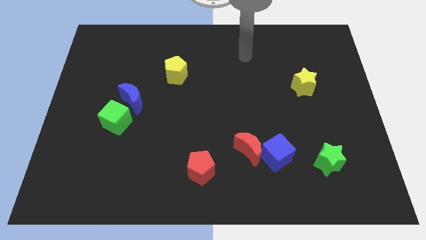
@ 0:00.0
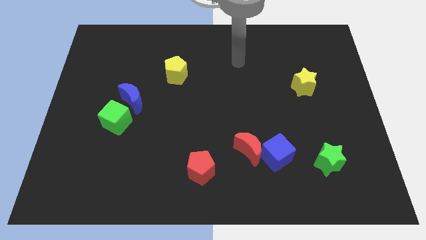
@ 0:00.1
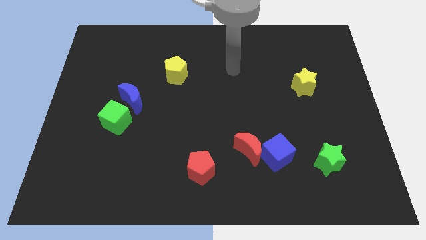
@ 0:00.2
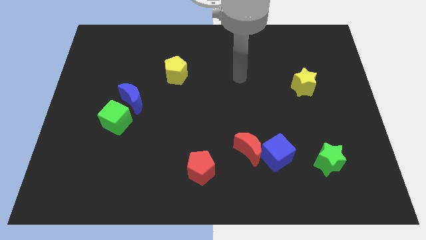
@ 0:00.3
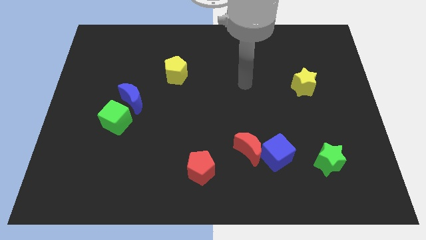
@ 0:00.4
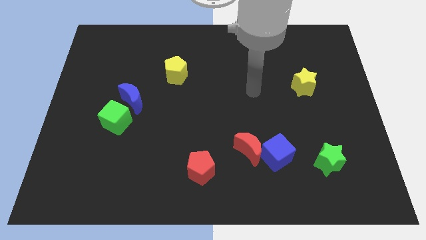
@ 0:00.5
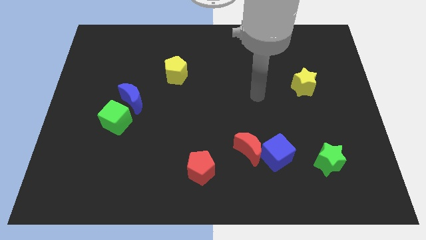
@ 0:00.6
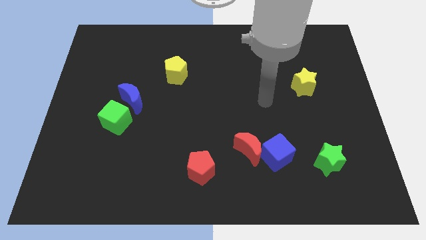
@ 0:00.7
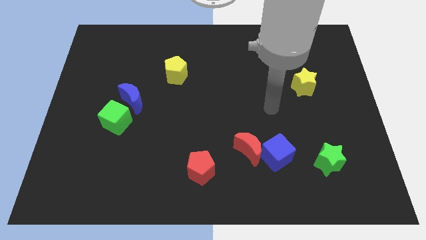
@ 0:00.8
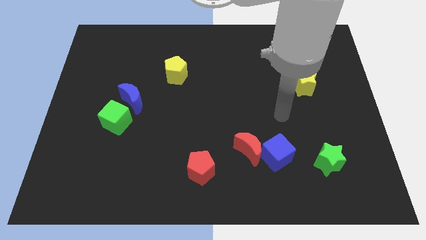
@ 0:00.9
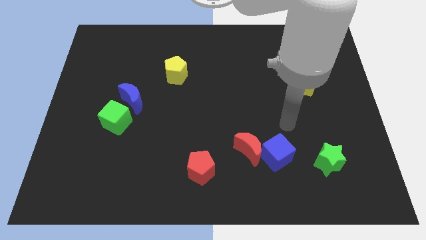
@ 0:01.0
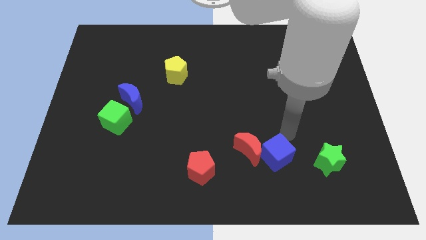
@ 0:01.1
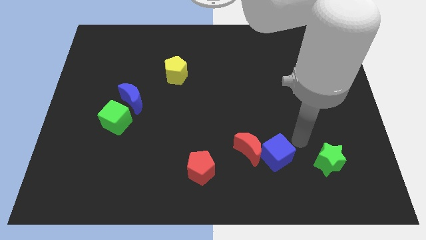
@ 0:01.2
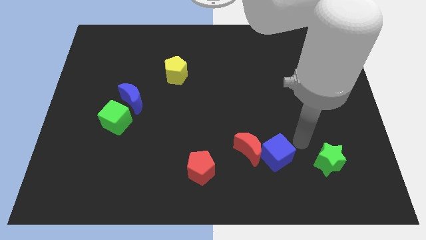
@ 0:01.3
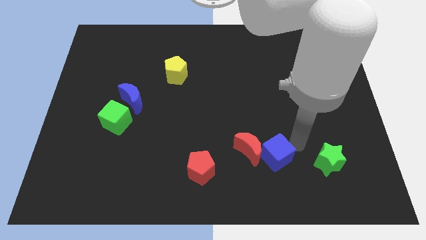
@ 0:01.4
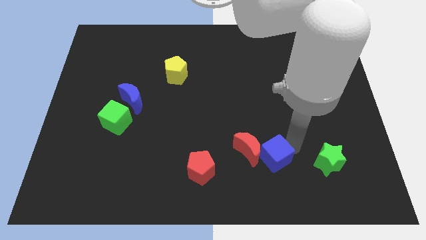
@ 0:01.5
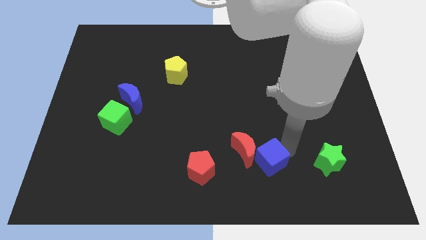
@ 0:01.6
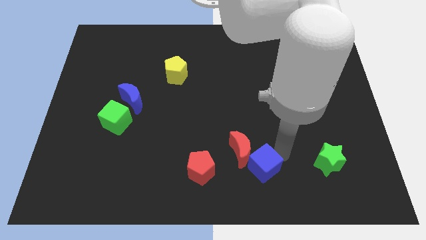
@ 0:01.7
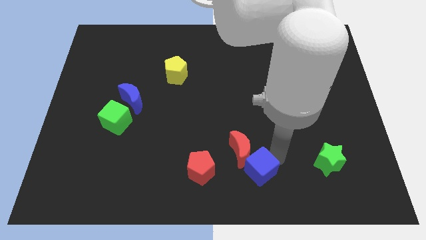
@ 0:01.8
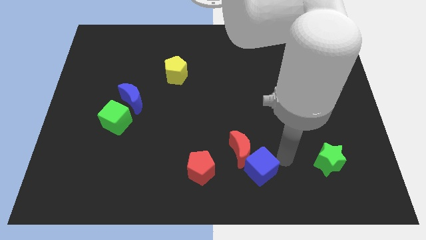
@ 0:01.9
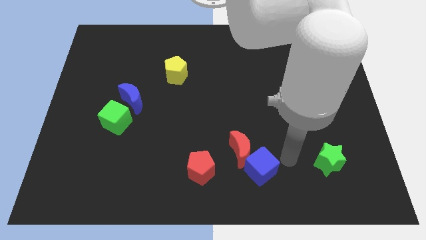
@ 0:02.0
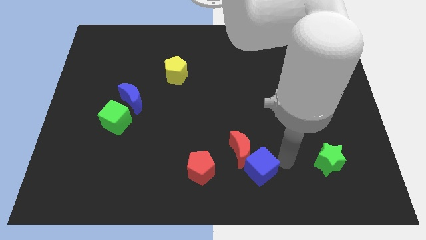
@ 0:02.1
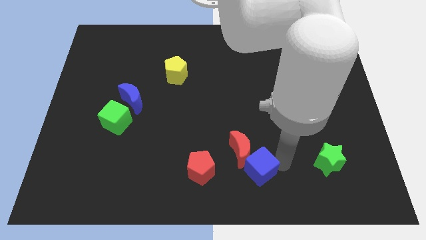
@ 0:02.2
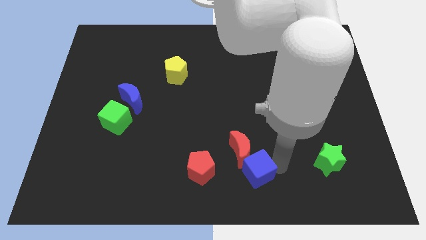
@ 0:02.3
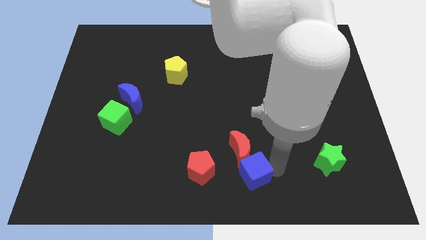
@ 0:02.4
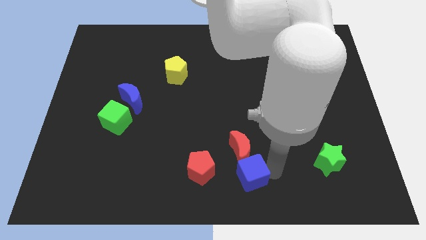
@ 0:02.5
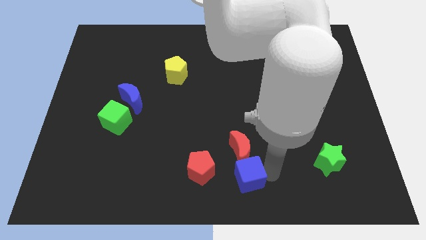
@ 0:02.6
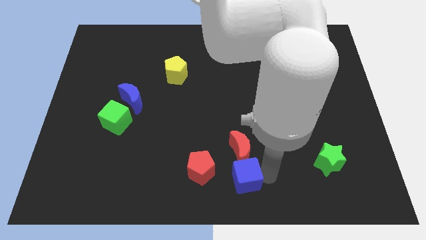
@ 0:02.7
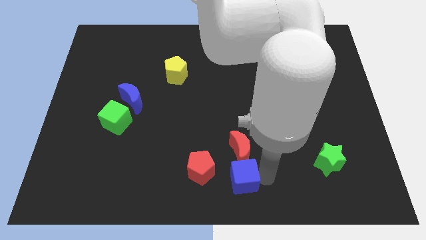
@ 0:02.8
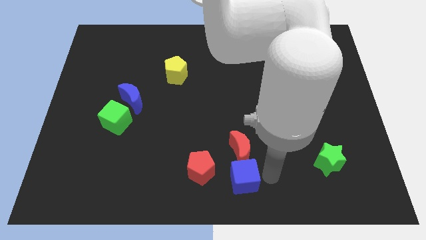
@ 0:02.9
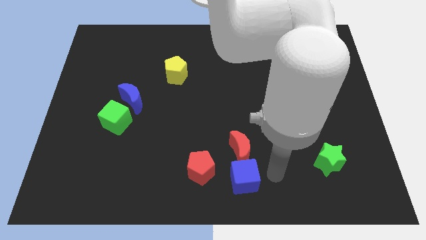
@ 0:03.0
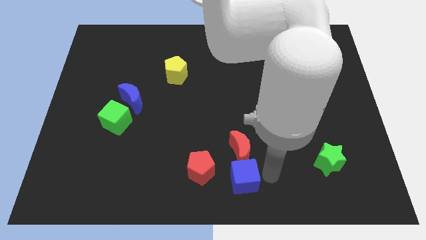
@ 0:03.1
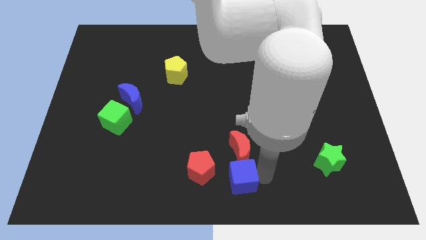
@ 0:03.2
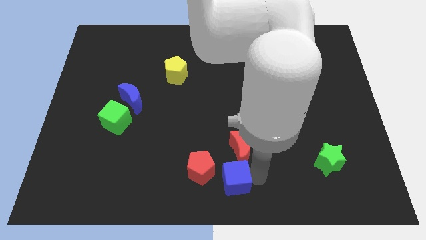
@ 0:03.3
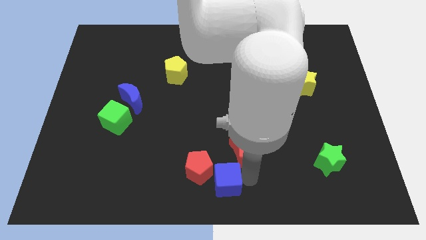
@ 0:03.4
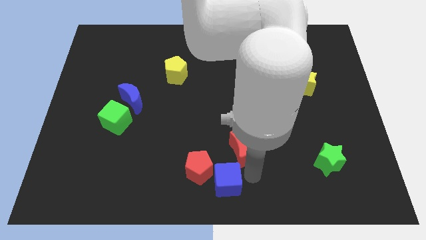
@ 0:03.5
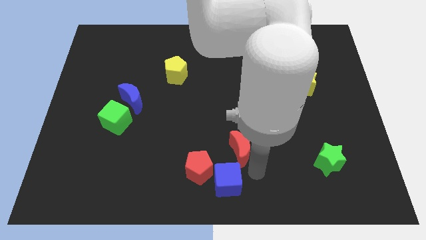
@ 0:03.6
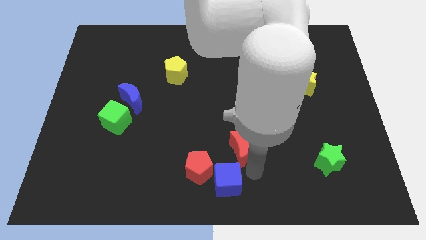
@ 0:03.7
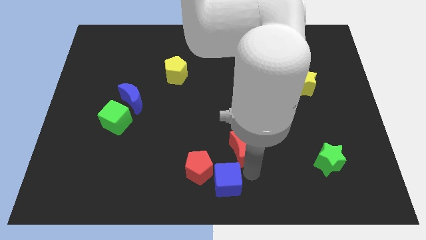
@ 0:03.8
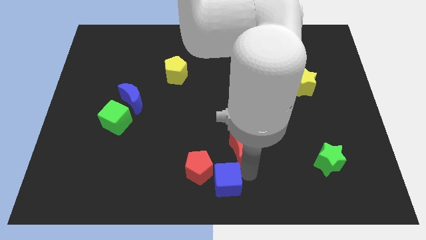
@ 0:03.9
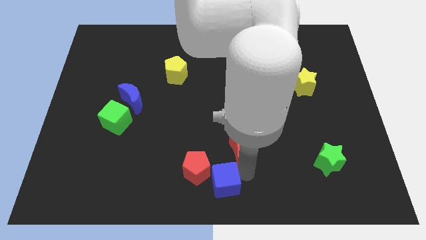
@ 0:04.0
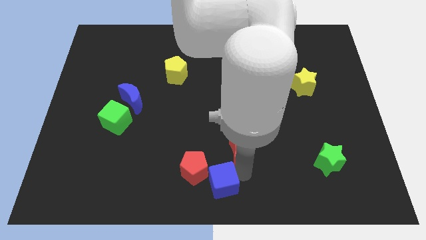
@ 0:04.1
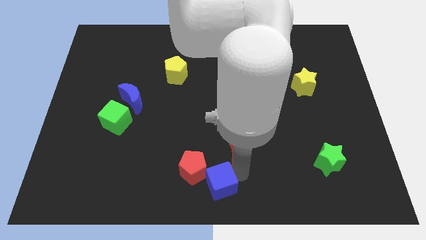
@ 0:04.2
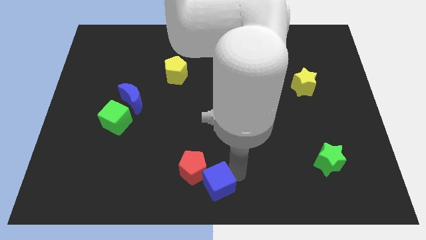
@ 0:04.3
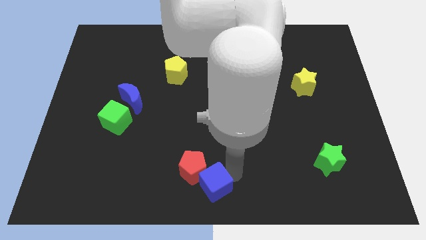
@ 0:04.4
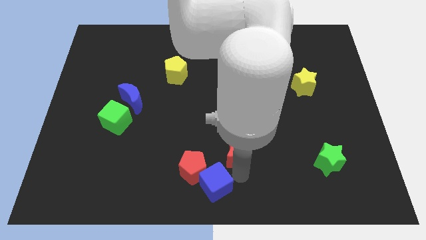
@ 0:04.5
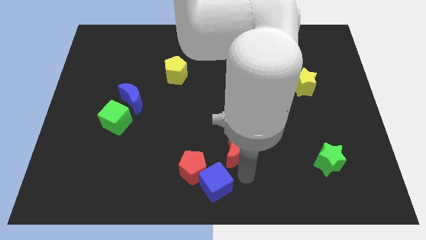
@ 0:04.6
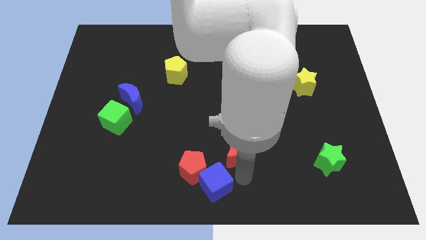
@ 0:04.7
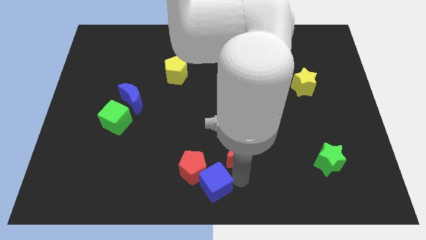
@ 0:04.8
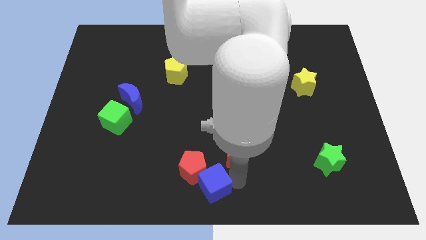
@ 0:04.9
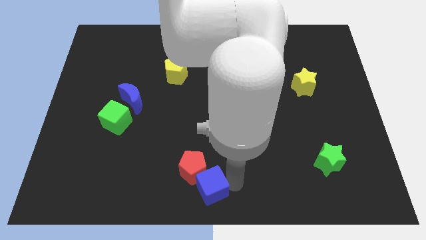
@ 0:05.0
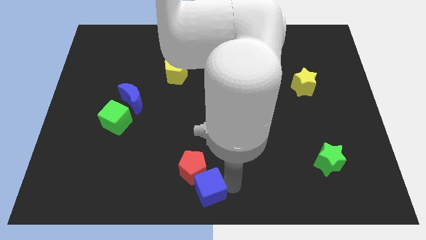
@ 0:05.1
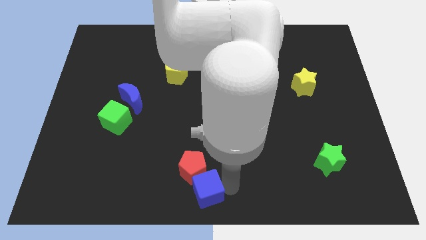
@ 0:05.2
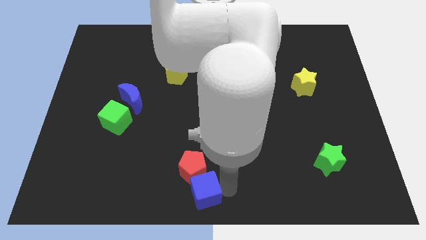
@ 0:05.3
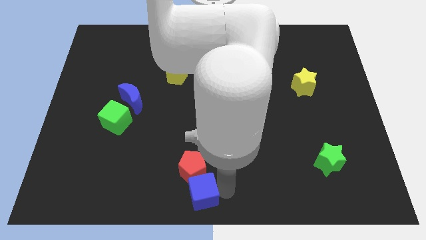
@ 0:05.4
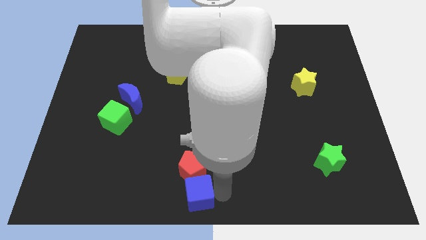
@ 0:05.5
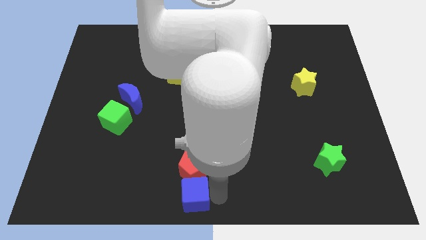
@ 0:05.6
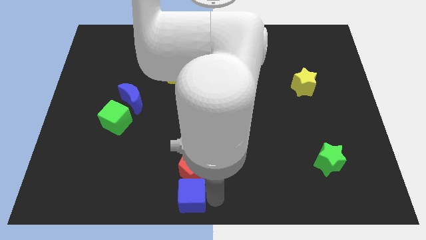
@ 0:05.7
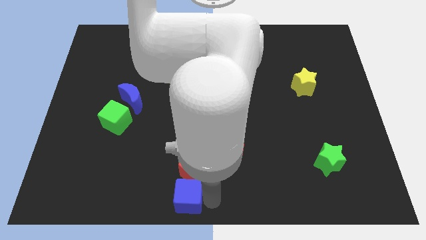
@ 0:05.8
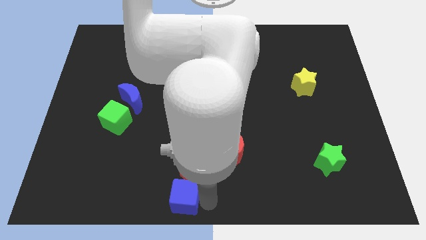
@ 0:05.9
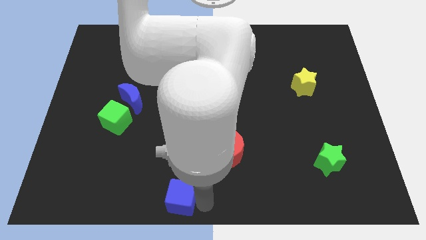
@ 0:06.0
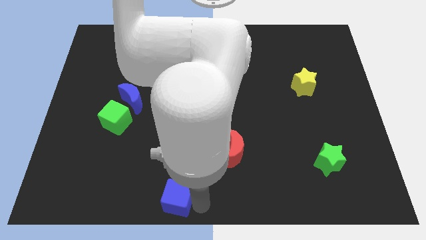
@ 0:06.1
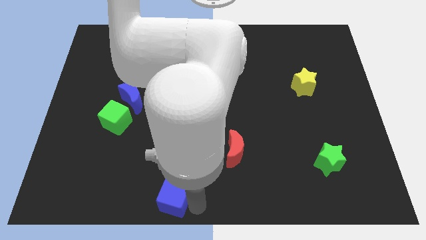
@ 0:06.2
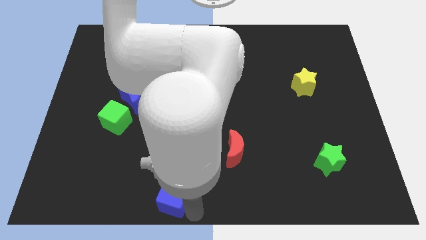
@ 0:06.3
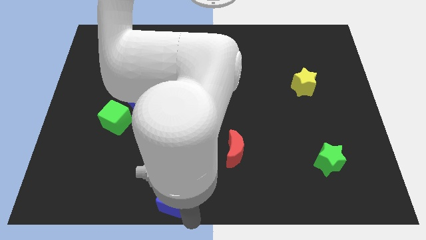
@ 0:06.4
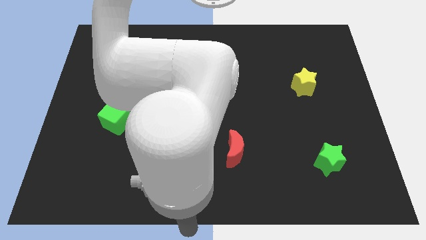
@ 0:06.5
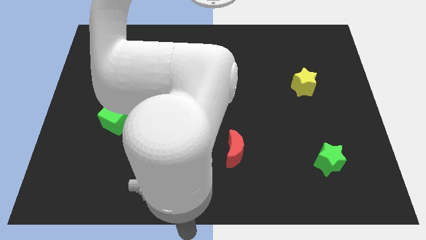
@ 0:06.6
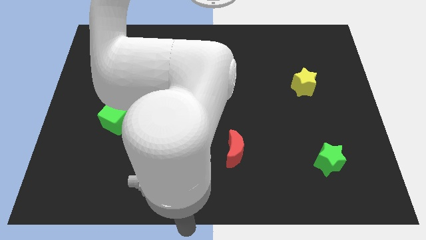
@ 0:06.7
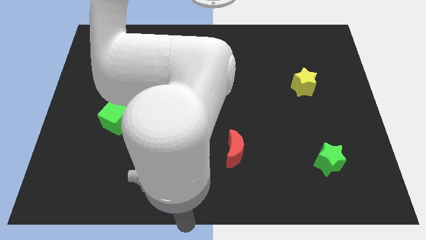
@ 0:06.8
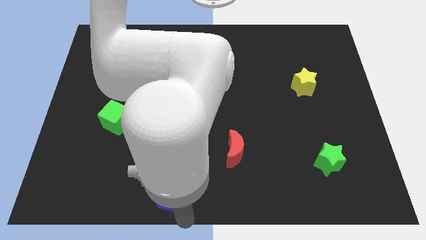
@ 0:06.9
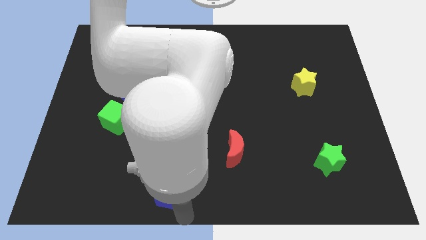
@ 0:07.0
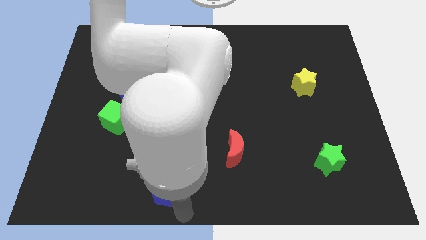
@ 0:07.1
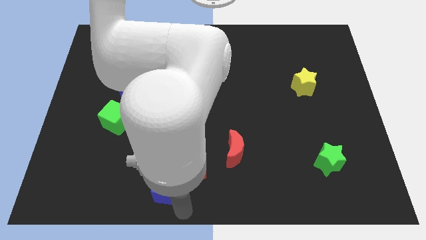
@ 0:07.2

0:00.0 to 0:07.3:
push the blue cube left

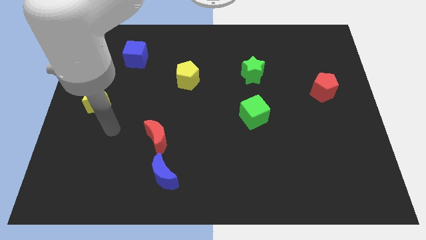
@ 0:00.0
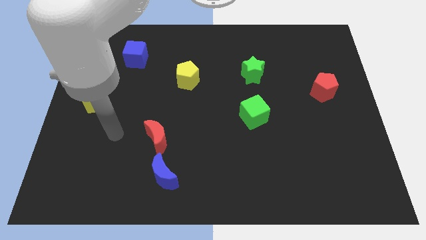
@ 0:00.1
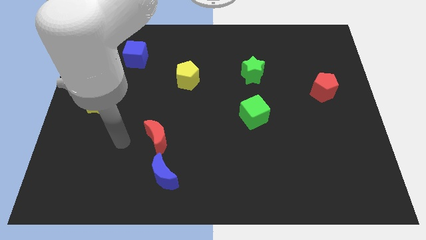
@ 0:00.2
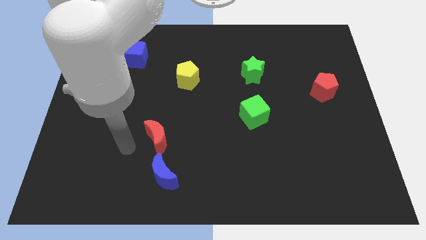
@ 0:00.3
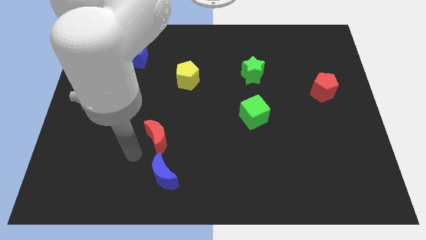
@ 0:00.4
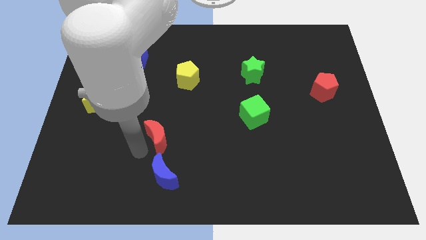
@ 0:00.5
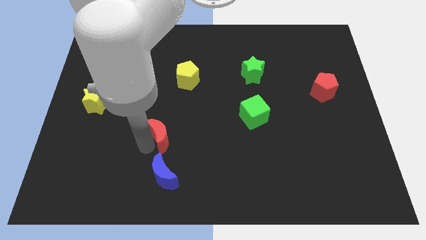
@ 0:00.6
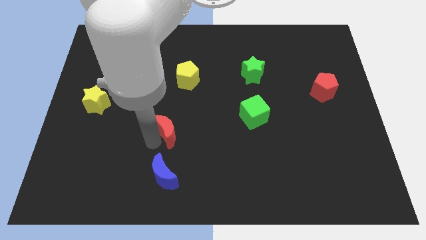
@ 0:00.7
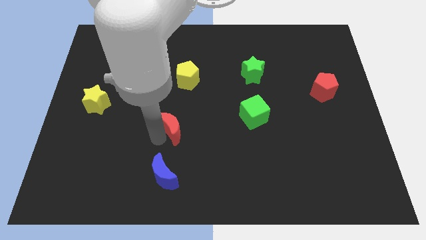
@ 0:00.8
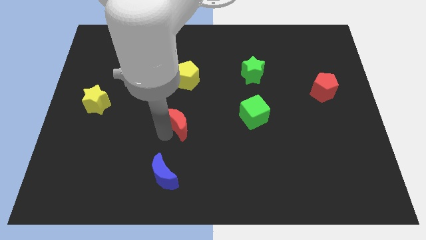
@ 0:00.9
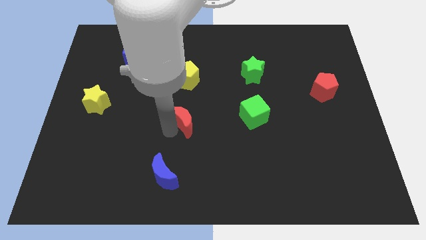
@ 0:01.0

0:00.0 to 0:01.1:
slightly move the red moon upwards and to the right

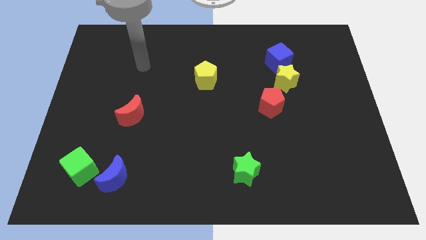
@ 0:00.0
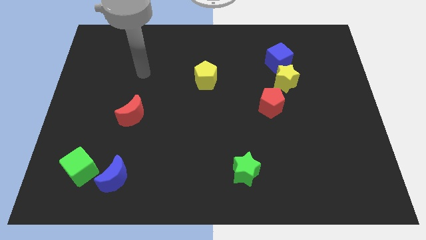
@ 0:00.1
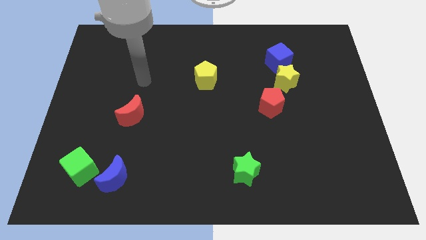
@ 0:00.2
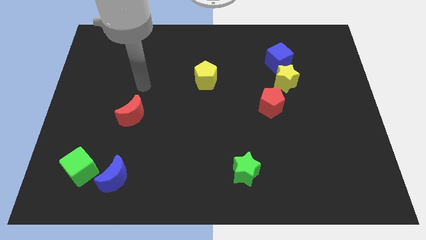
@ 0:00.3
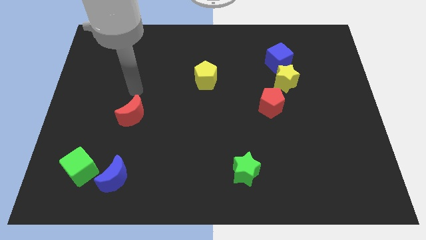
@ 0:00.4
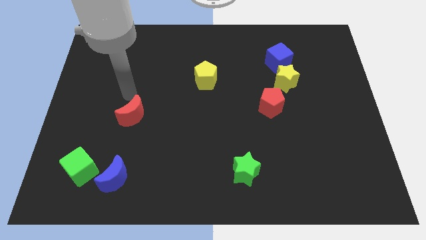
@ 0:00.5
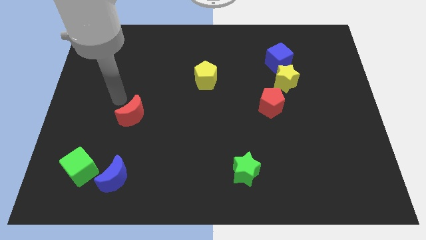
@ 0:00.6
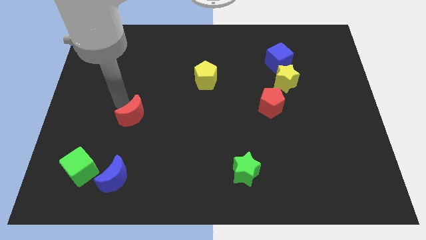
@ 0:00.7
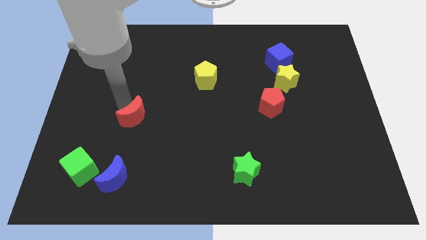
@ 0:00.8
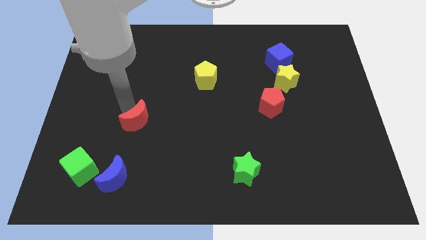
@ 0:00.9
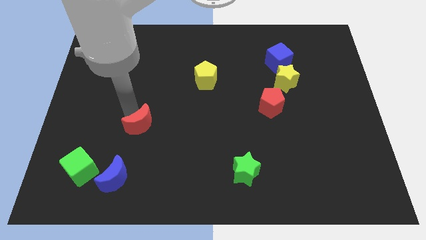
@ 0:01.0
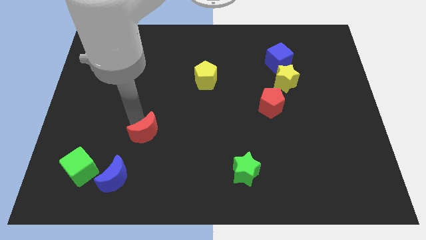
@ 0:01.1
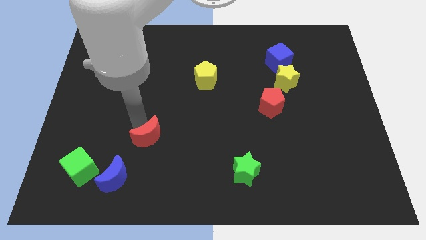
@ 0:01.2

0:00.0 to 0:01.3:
slightly move the red moon downwards and right diagonally
